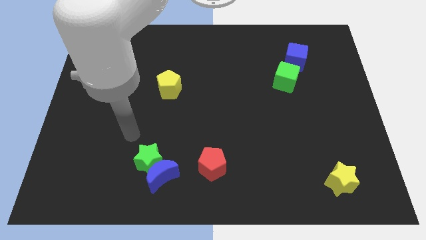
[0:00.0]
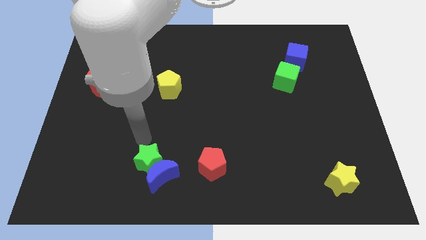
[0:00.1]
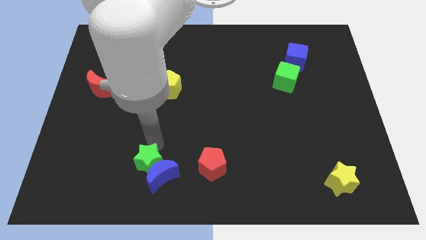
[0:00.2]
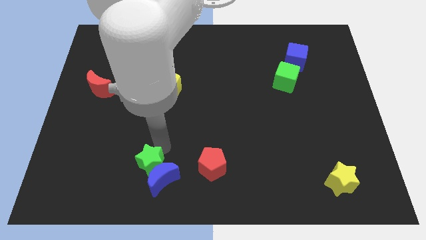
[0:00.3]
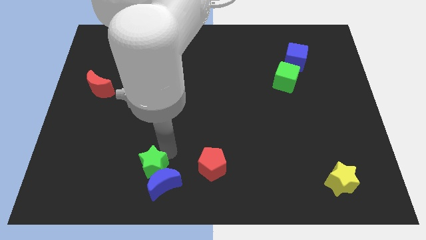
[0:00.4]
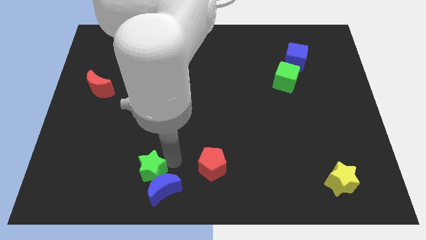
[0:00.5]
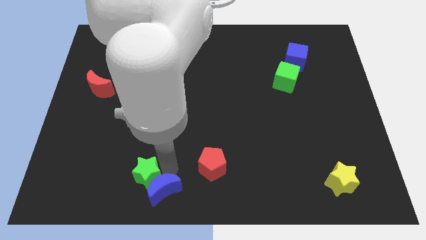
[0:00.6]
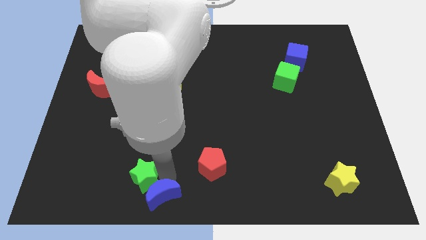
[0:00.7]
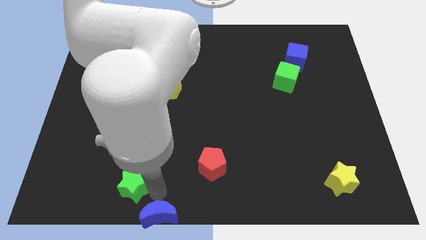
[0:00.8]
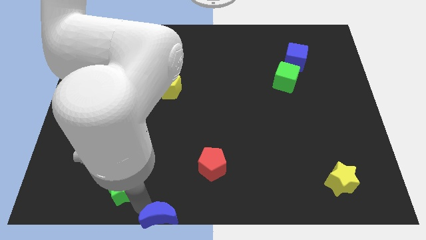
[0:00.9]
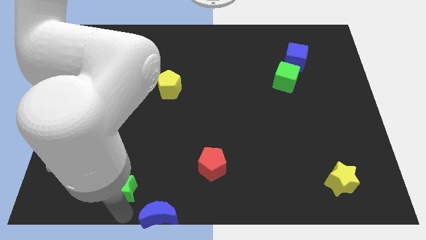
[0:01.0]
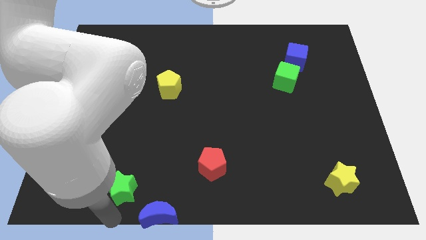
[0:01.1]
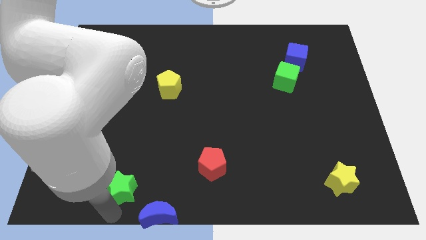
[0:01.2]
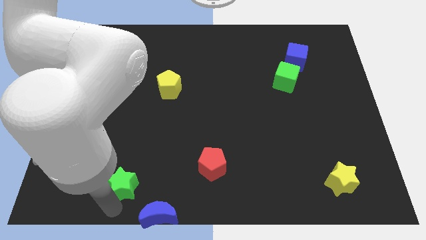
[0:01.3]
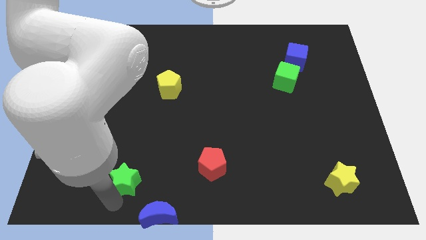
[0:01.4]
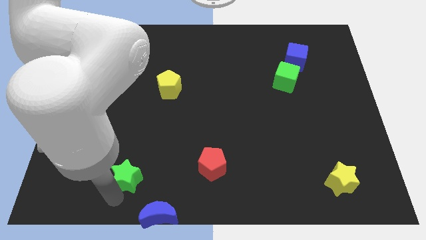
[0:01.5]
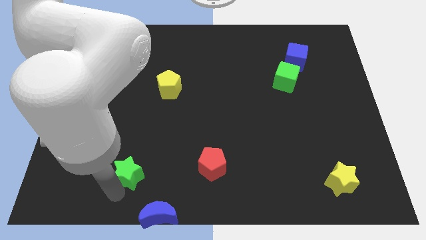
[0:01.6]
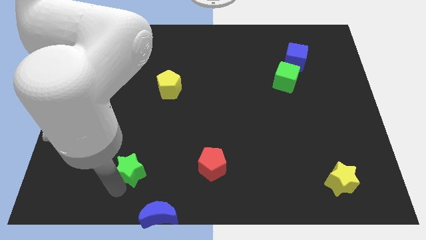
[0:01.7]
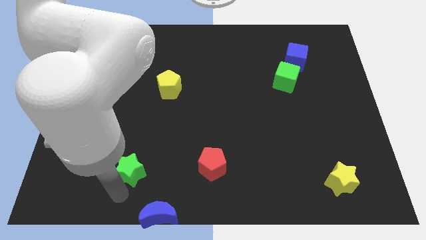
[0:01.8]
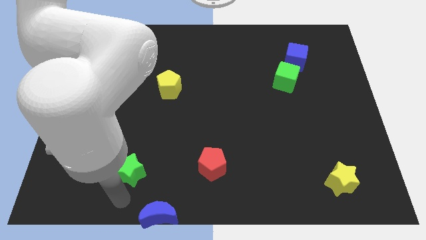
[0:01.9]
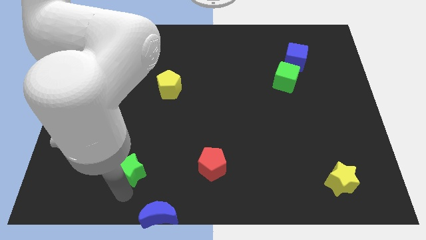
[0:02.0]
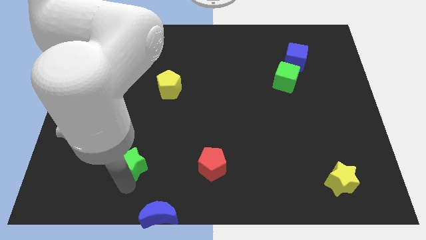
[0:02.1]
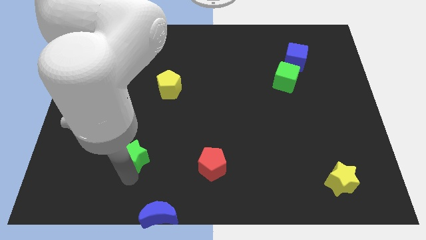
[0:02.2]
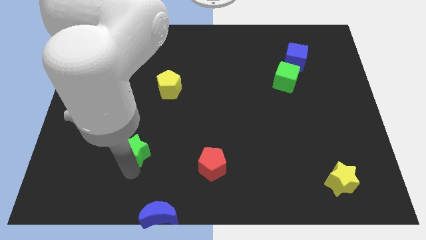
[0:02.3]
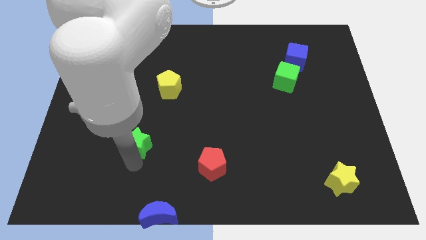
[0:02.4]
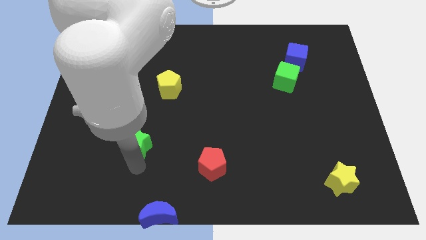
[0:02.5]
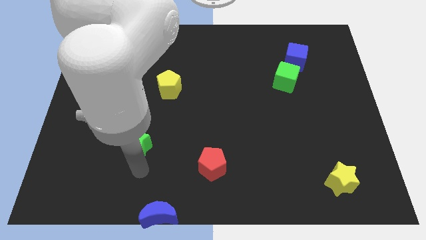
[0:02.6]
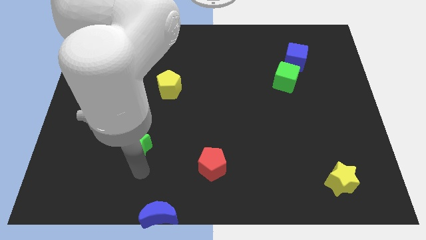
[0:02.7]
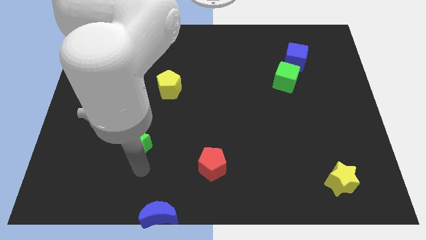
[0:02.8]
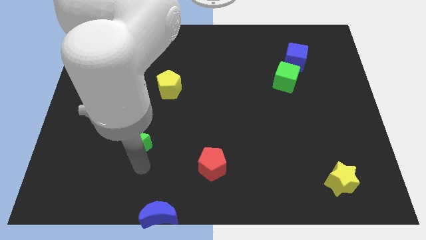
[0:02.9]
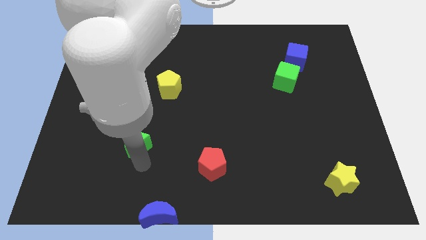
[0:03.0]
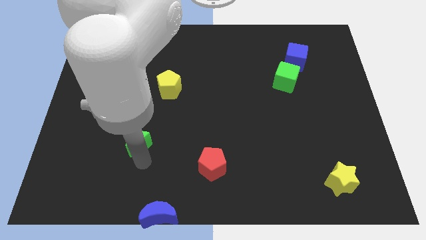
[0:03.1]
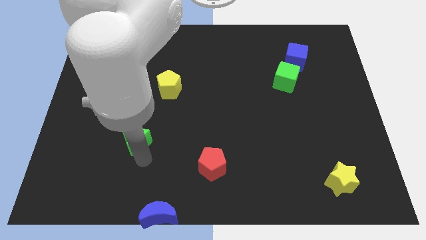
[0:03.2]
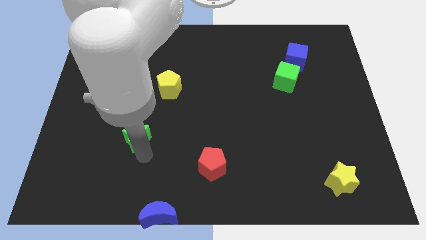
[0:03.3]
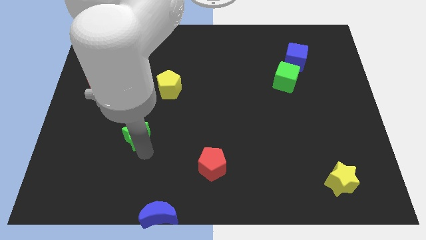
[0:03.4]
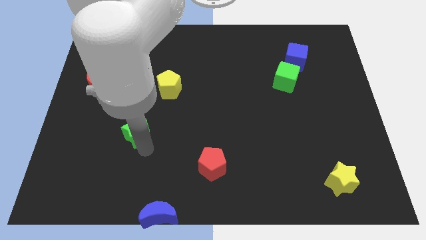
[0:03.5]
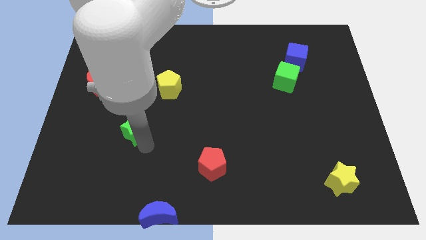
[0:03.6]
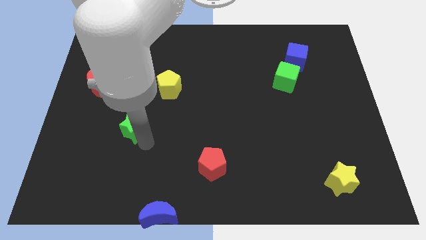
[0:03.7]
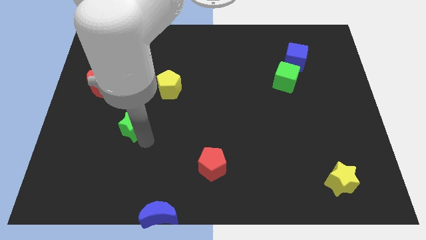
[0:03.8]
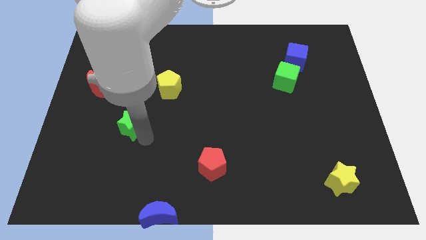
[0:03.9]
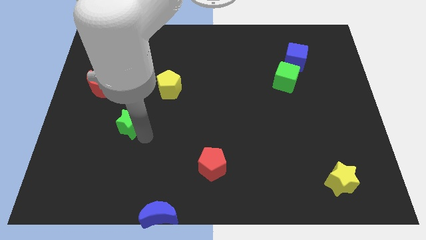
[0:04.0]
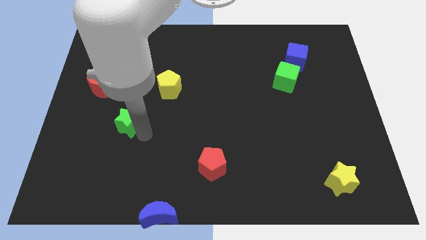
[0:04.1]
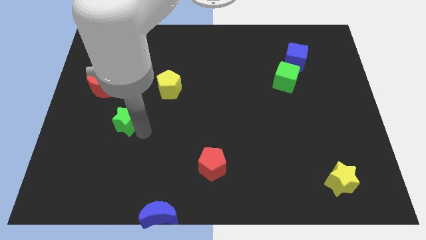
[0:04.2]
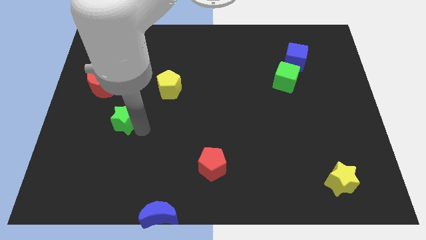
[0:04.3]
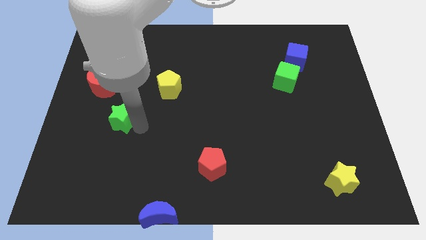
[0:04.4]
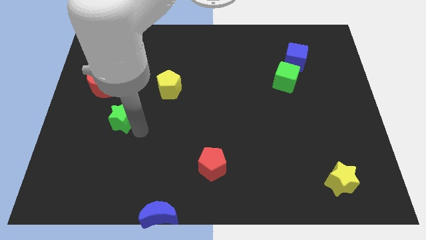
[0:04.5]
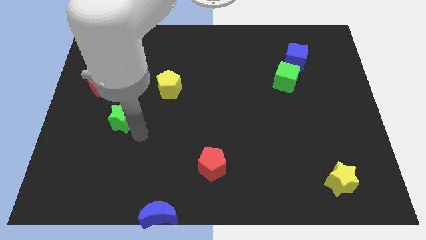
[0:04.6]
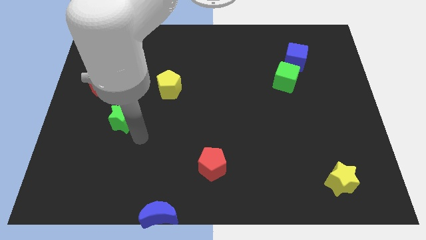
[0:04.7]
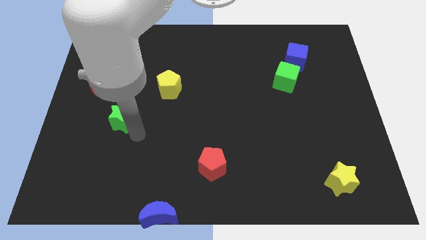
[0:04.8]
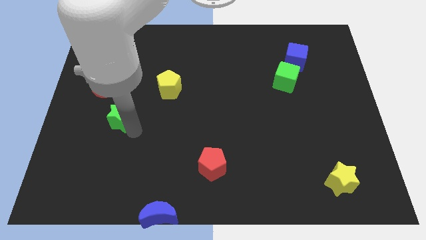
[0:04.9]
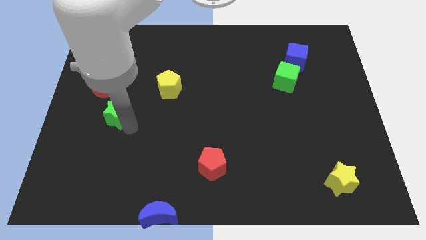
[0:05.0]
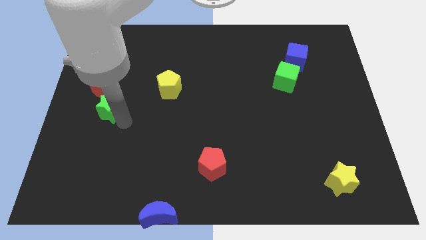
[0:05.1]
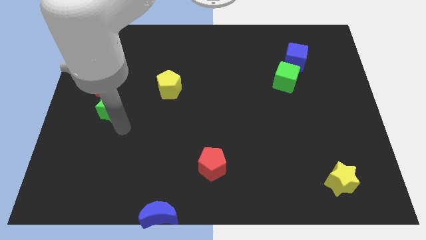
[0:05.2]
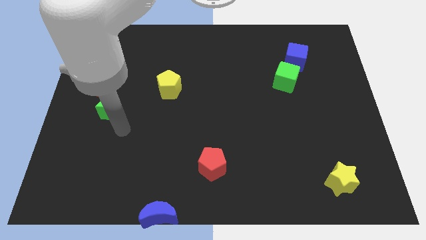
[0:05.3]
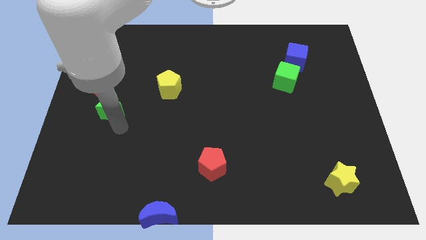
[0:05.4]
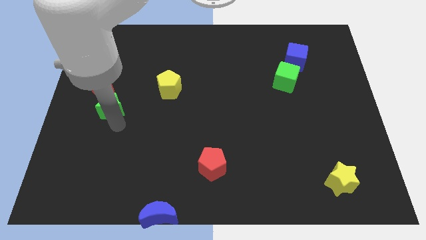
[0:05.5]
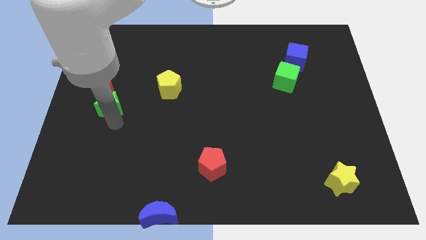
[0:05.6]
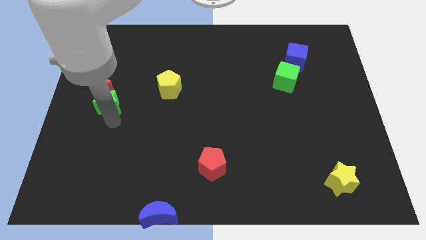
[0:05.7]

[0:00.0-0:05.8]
put the green star close to the red moon

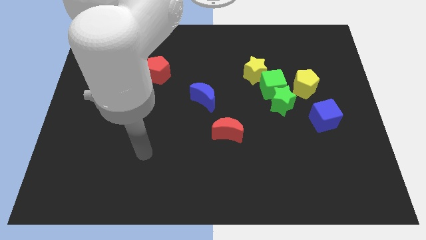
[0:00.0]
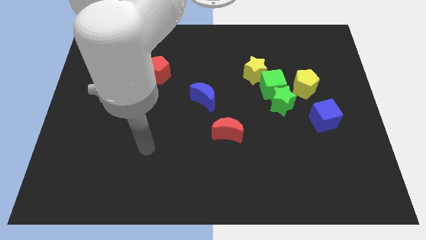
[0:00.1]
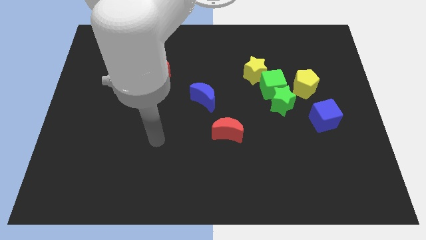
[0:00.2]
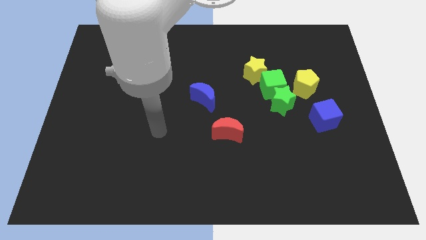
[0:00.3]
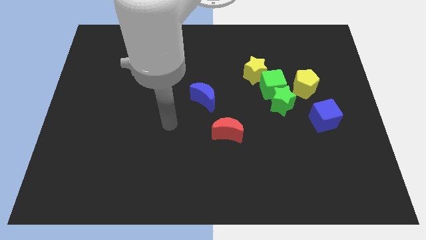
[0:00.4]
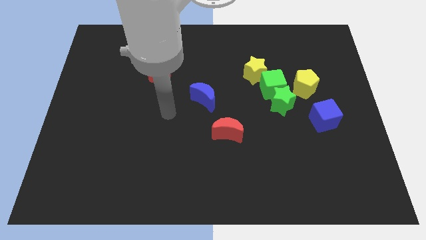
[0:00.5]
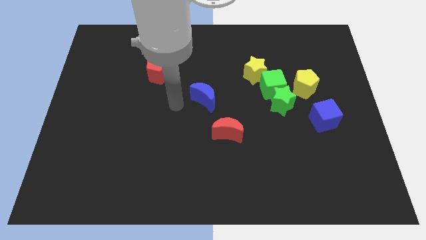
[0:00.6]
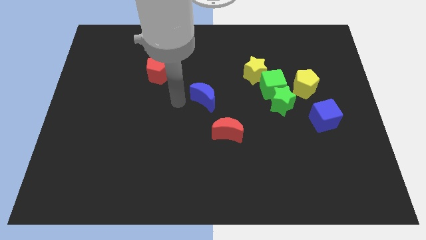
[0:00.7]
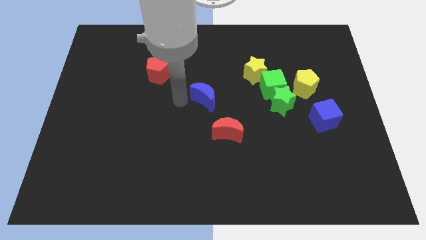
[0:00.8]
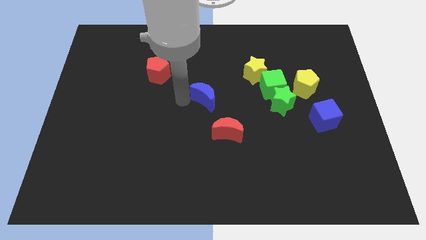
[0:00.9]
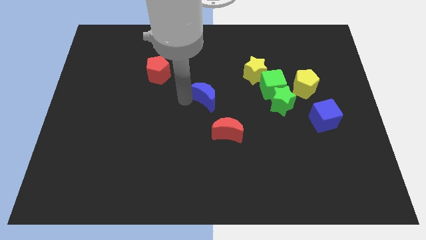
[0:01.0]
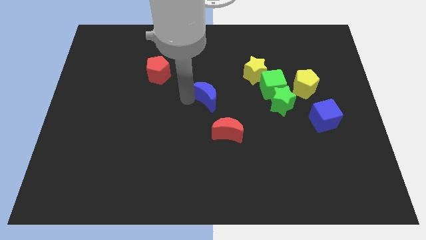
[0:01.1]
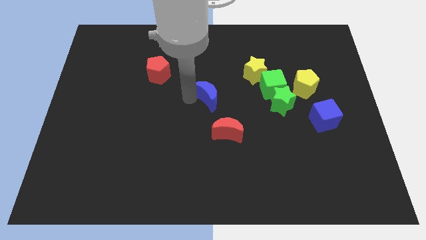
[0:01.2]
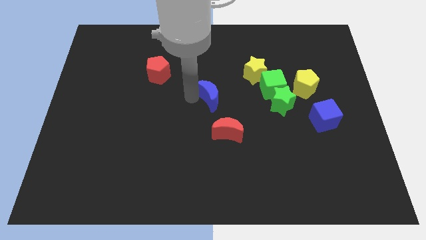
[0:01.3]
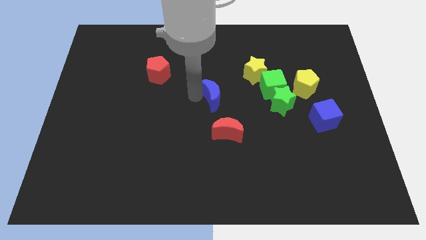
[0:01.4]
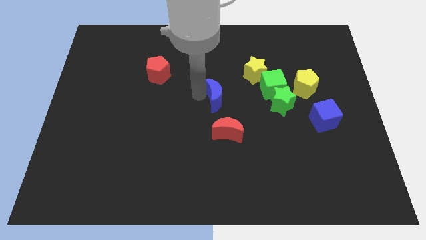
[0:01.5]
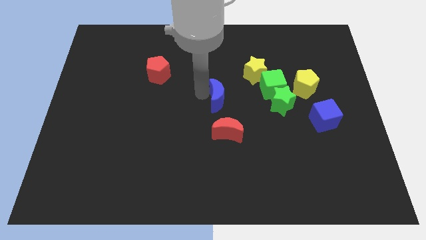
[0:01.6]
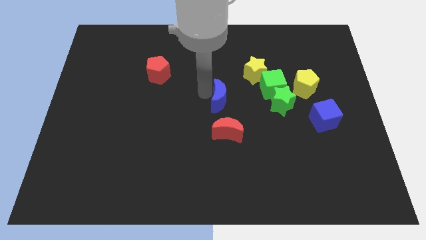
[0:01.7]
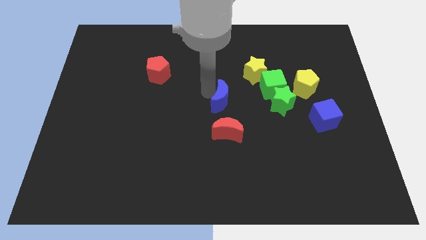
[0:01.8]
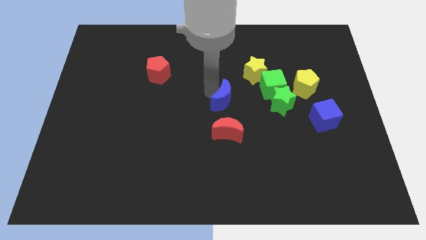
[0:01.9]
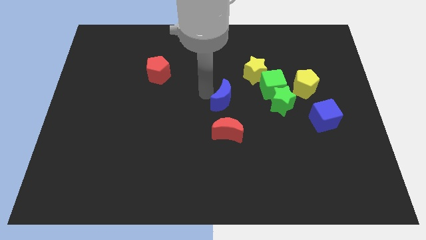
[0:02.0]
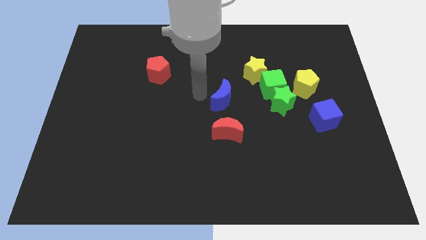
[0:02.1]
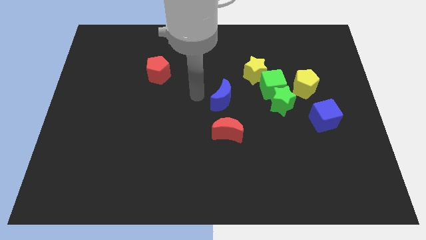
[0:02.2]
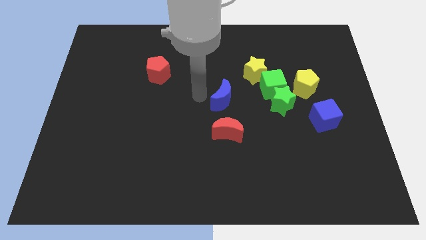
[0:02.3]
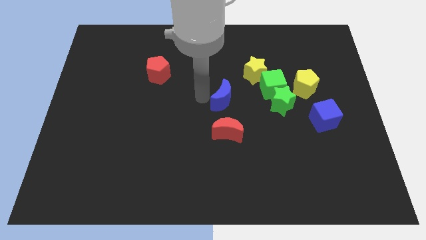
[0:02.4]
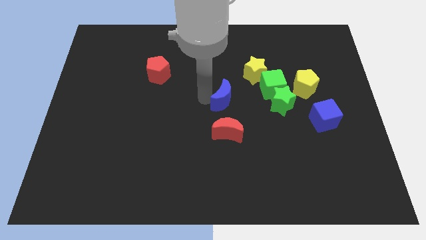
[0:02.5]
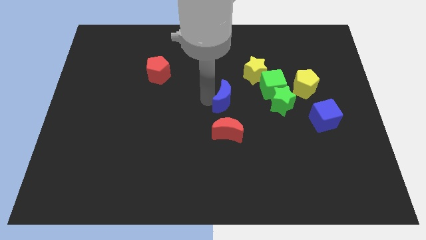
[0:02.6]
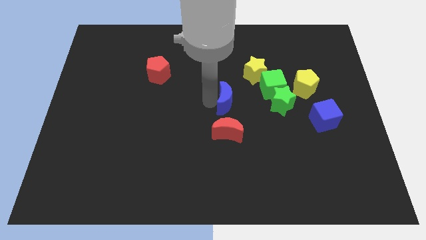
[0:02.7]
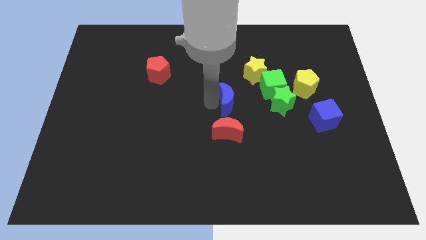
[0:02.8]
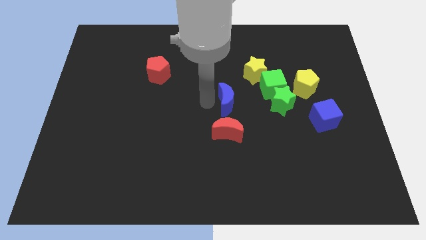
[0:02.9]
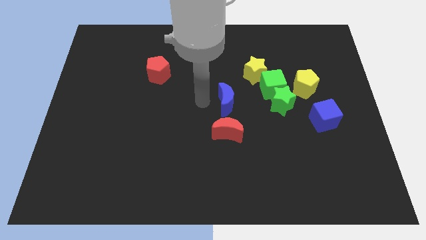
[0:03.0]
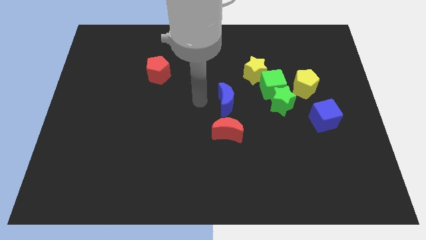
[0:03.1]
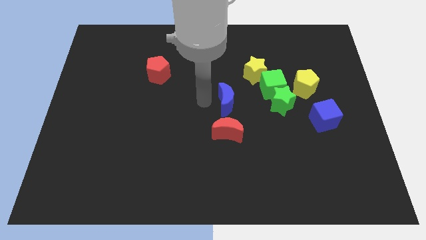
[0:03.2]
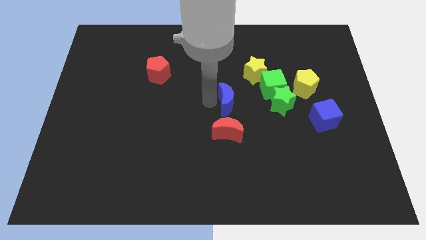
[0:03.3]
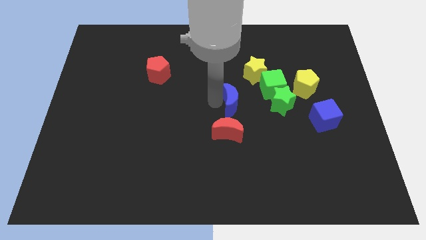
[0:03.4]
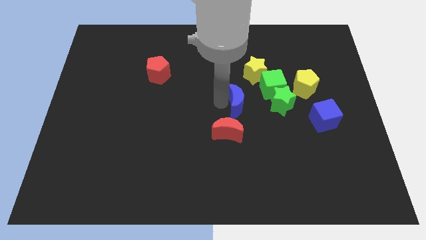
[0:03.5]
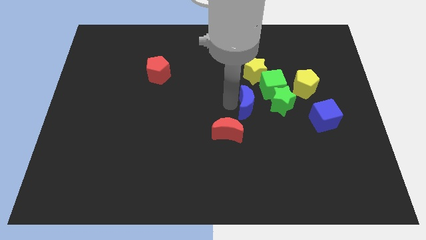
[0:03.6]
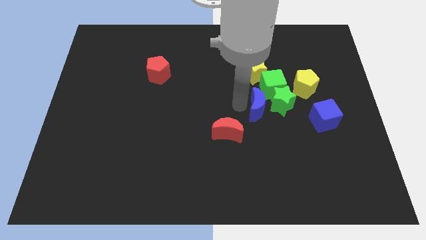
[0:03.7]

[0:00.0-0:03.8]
slide the blue moon close to the green star
